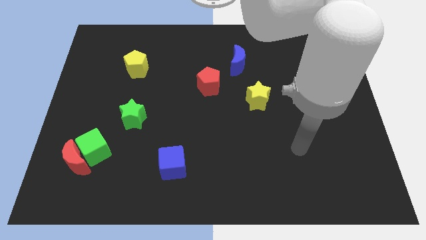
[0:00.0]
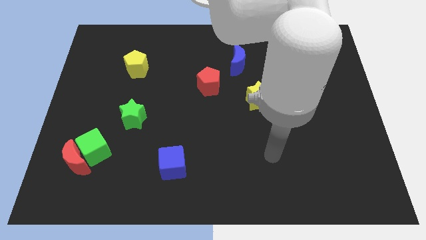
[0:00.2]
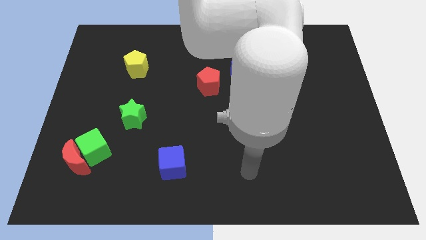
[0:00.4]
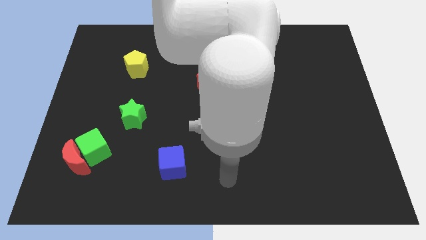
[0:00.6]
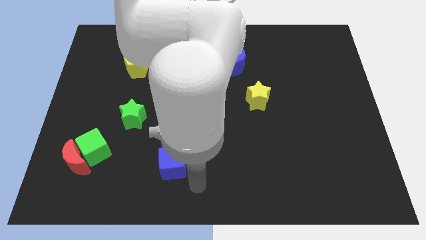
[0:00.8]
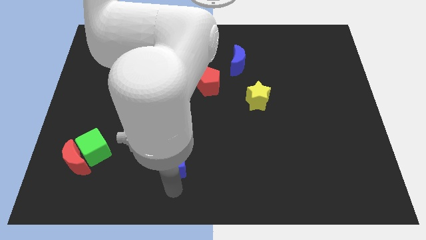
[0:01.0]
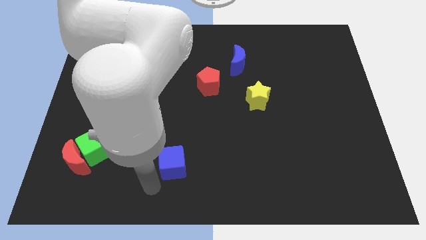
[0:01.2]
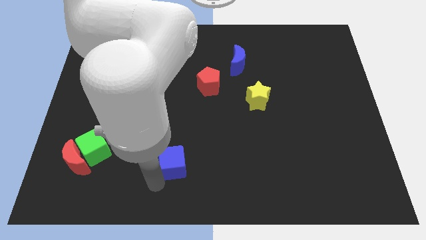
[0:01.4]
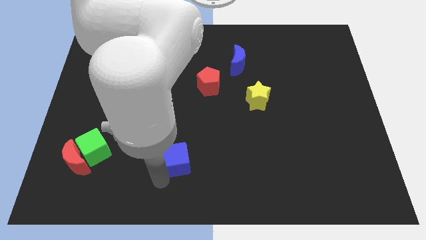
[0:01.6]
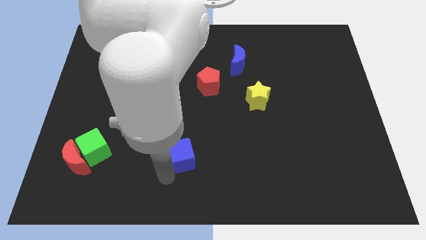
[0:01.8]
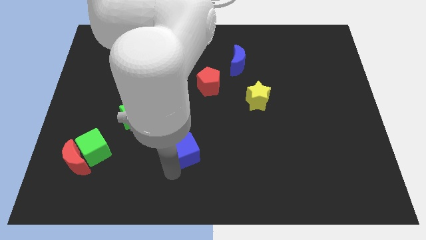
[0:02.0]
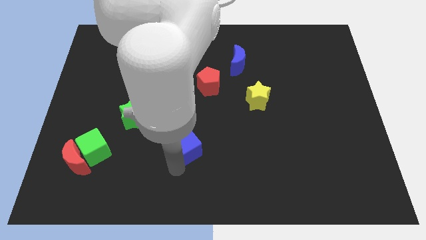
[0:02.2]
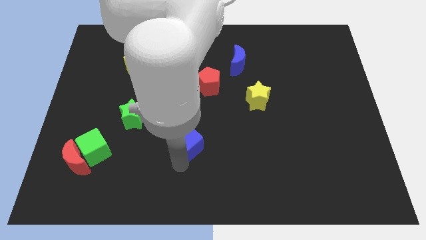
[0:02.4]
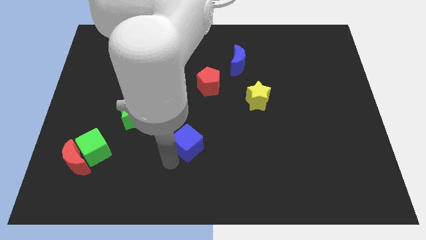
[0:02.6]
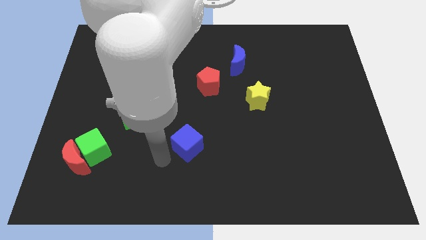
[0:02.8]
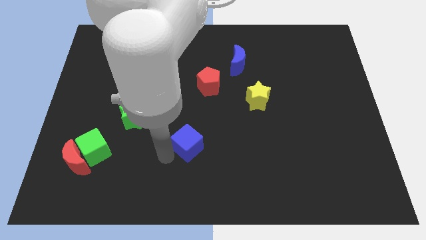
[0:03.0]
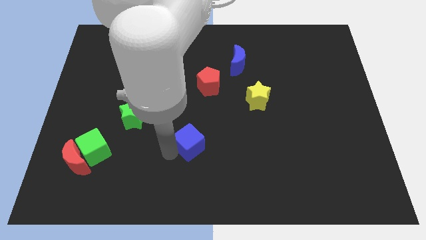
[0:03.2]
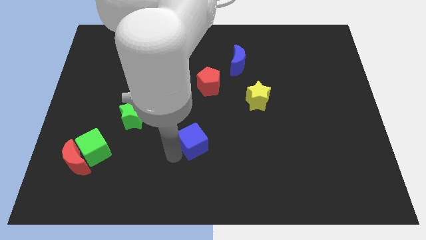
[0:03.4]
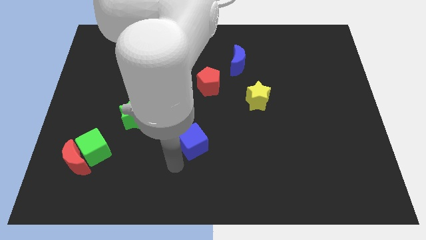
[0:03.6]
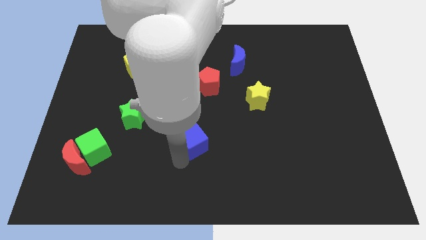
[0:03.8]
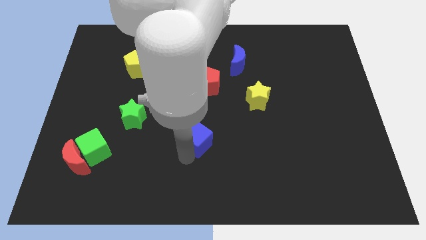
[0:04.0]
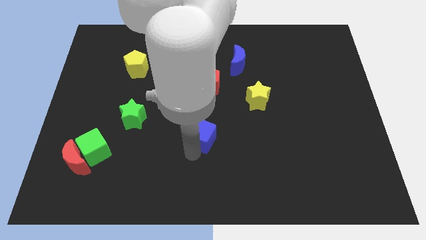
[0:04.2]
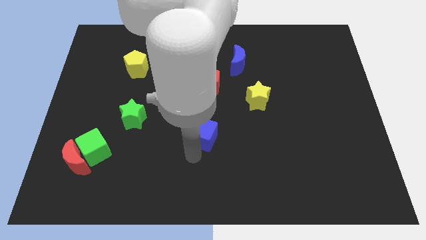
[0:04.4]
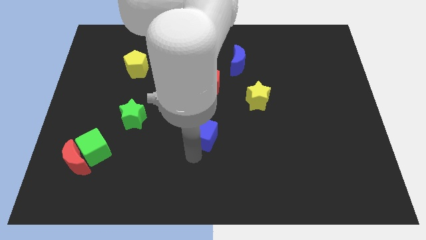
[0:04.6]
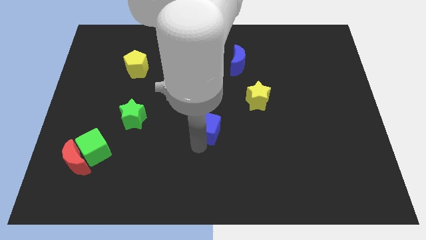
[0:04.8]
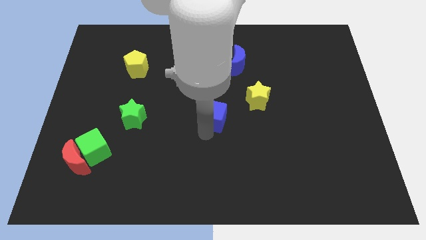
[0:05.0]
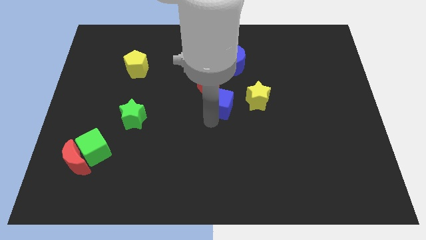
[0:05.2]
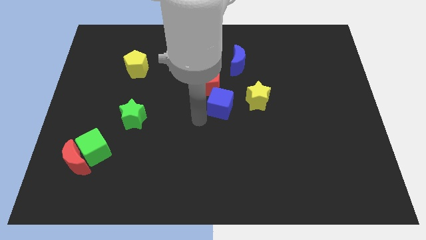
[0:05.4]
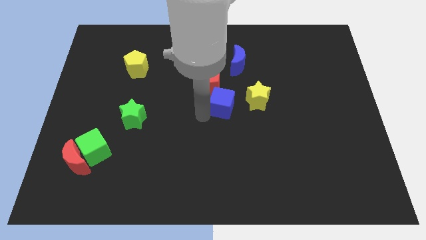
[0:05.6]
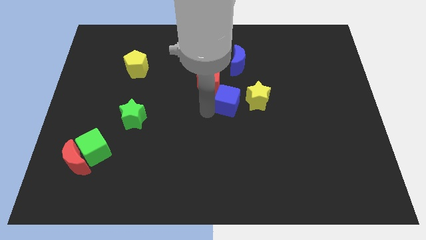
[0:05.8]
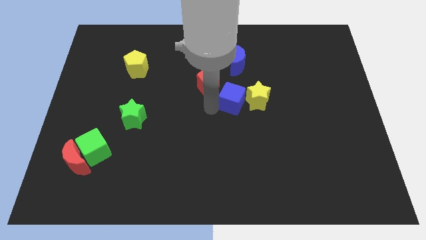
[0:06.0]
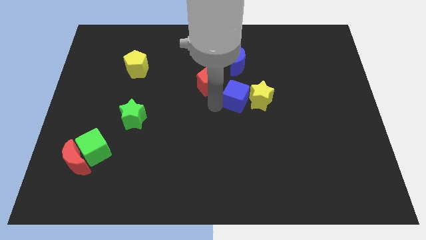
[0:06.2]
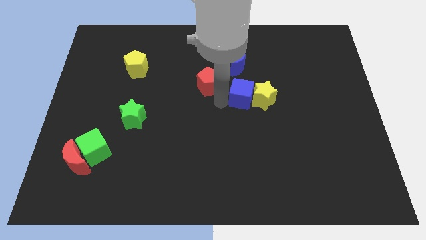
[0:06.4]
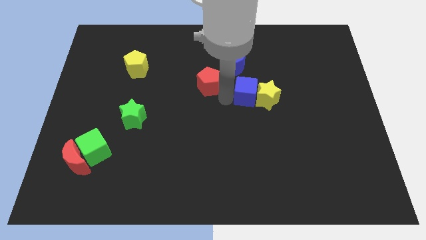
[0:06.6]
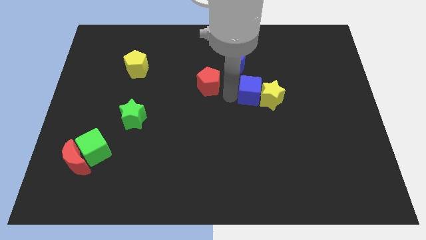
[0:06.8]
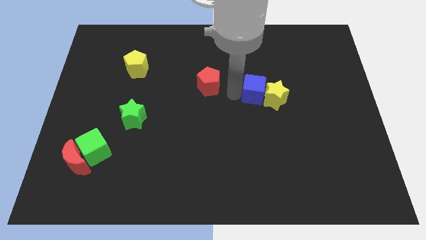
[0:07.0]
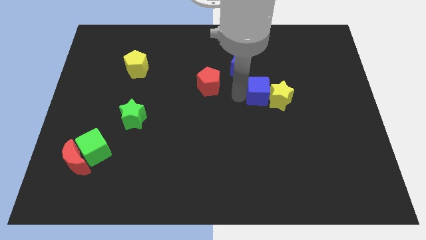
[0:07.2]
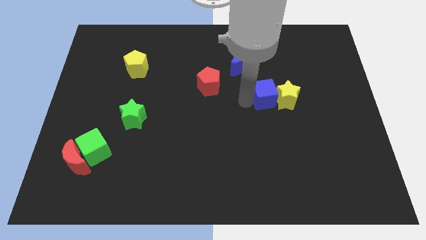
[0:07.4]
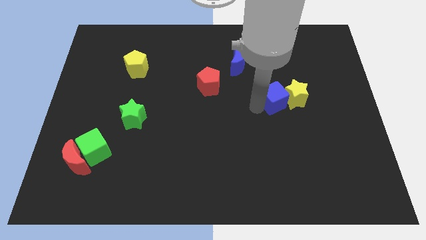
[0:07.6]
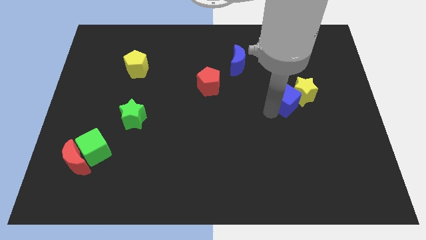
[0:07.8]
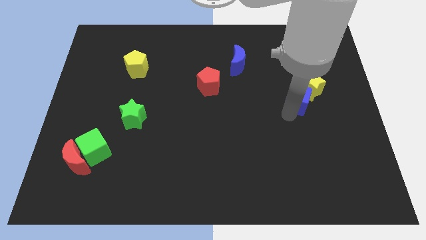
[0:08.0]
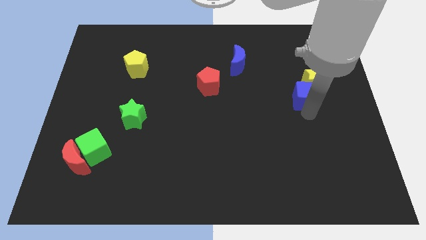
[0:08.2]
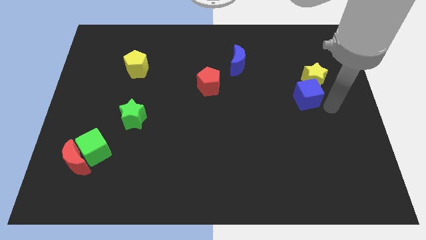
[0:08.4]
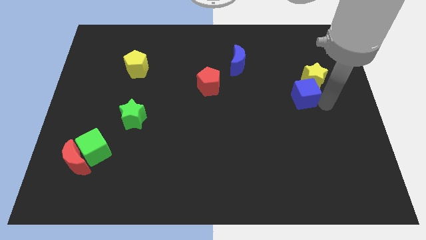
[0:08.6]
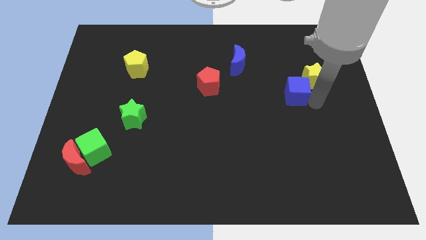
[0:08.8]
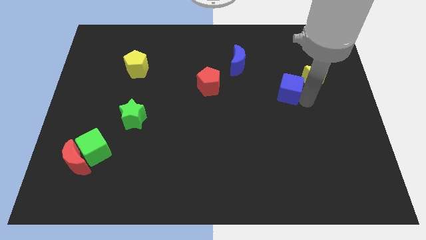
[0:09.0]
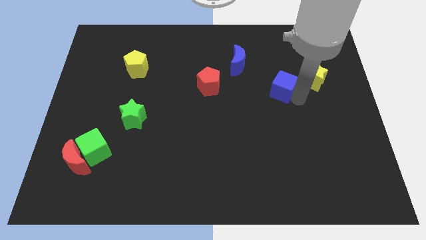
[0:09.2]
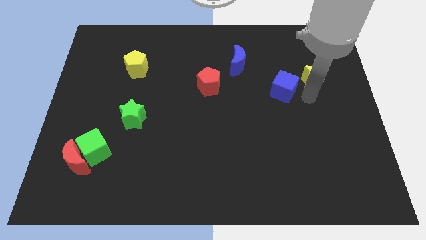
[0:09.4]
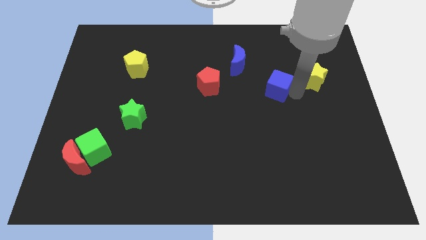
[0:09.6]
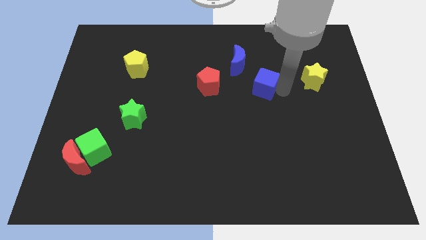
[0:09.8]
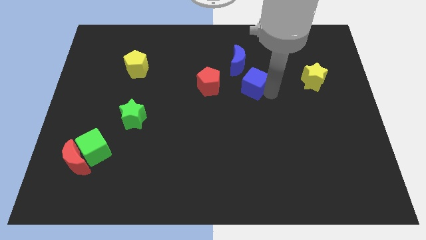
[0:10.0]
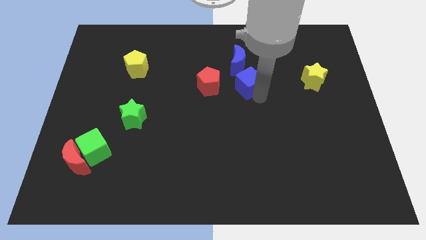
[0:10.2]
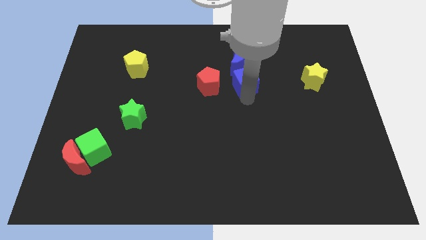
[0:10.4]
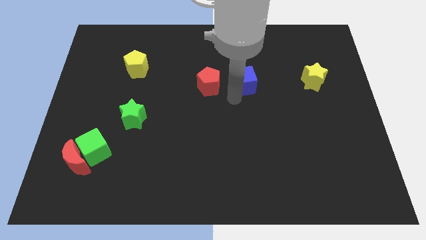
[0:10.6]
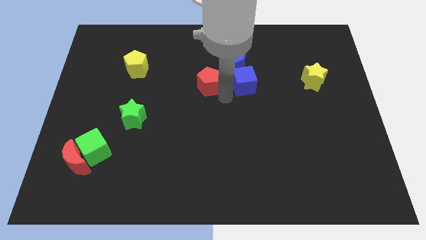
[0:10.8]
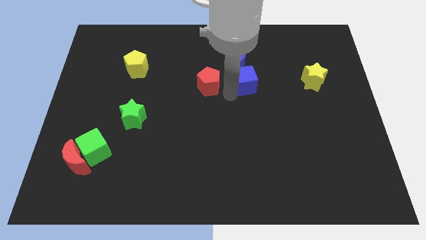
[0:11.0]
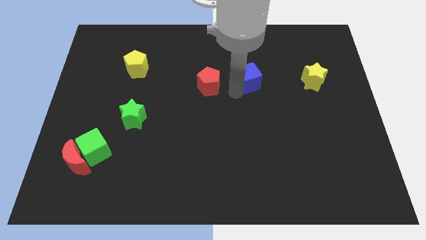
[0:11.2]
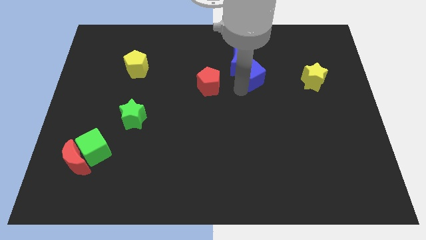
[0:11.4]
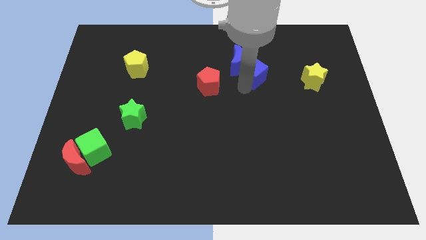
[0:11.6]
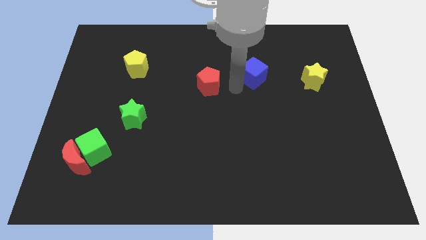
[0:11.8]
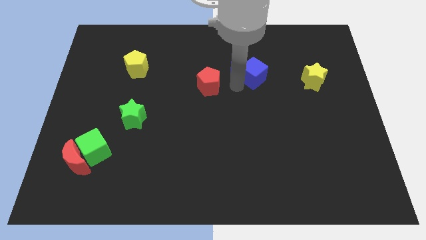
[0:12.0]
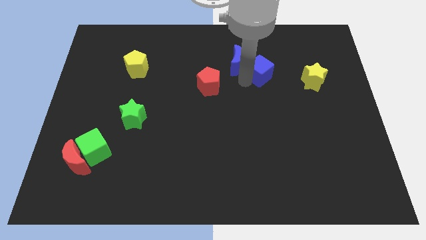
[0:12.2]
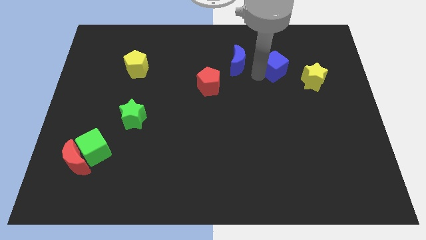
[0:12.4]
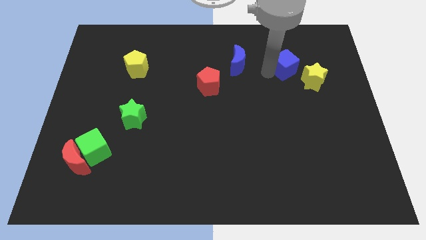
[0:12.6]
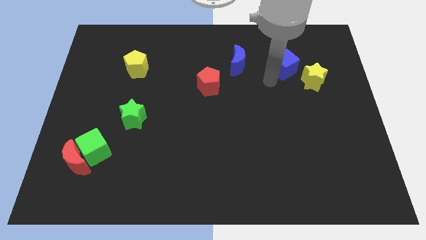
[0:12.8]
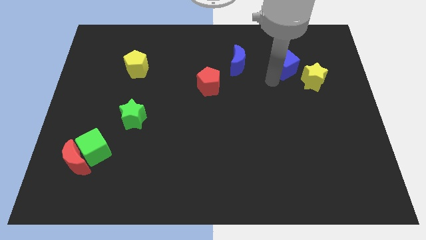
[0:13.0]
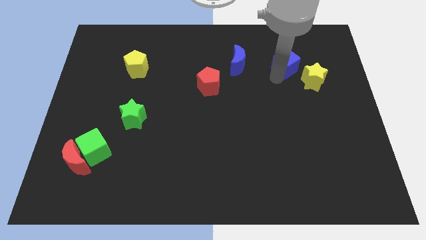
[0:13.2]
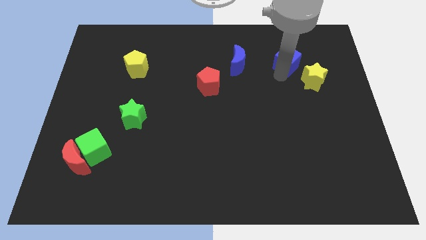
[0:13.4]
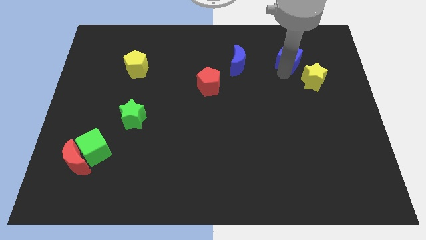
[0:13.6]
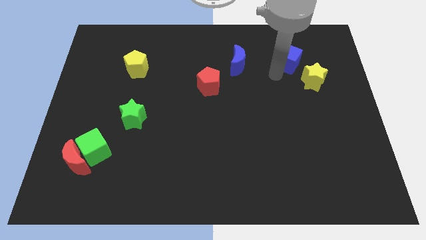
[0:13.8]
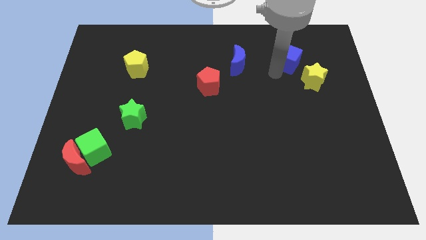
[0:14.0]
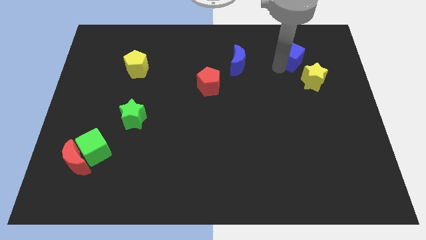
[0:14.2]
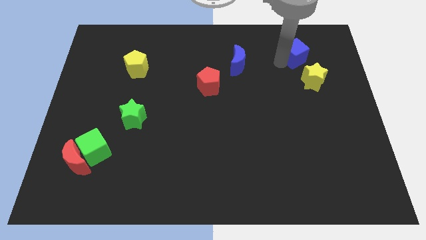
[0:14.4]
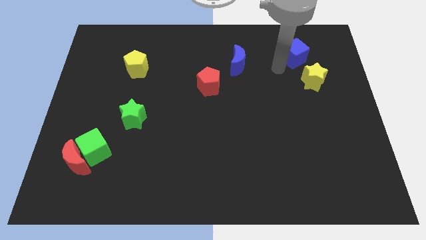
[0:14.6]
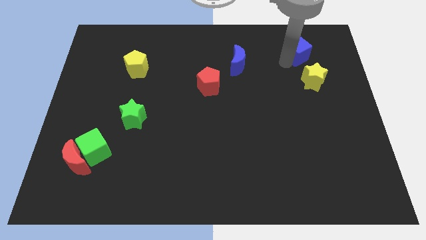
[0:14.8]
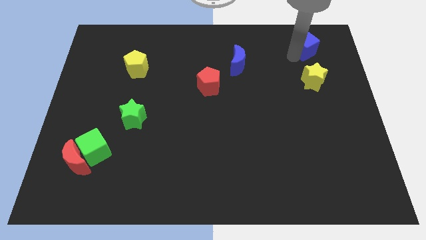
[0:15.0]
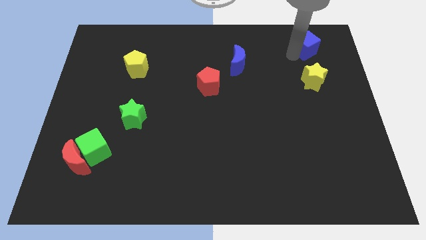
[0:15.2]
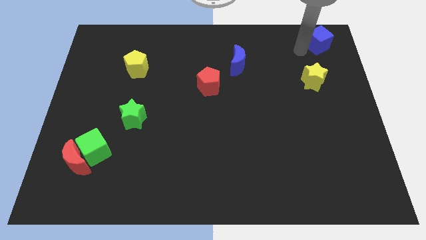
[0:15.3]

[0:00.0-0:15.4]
move the blue cube to the upper right corner
